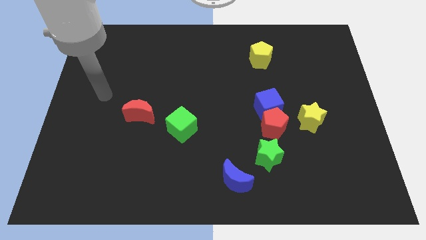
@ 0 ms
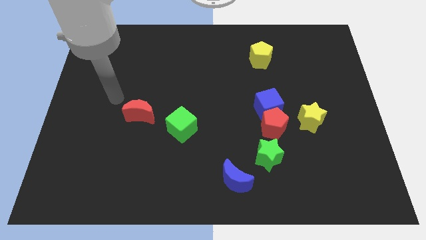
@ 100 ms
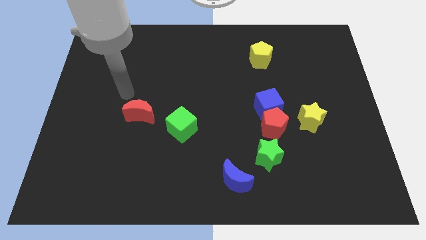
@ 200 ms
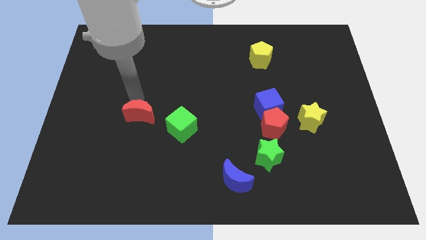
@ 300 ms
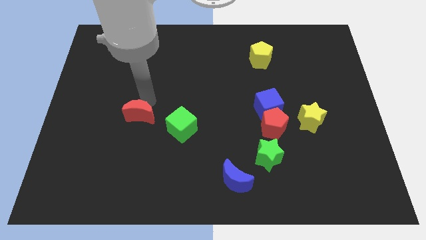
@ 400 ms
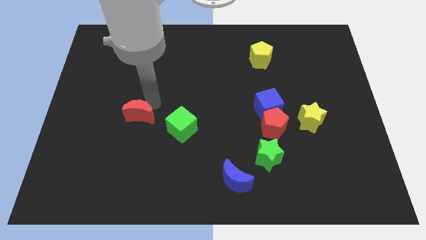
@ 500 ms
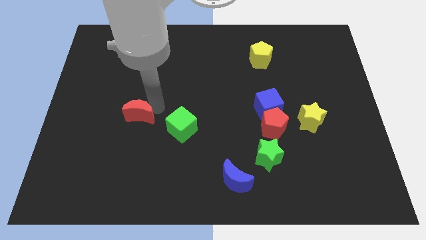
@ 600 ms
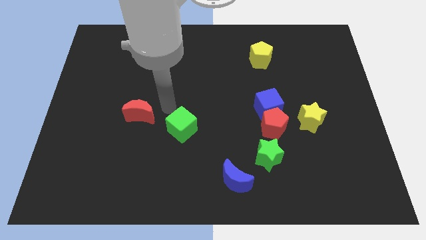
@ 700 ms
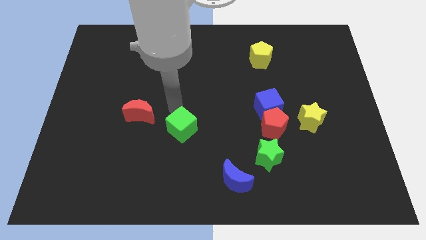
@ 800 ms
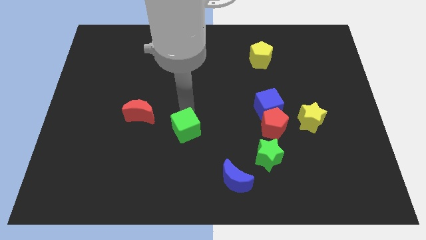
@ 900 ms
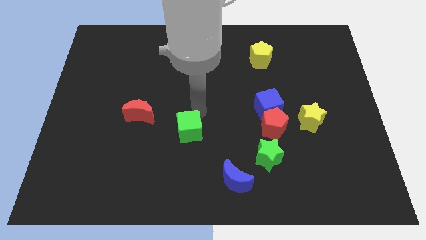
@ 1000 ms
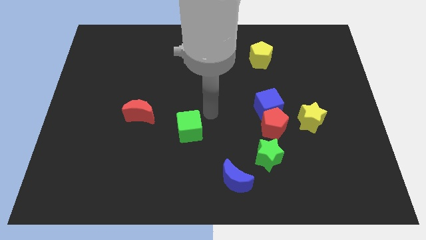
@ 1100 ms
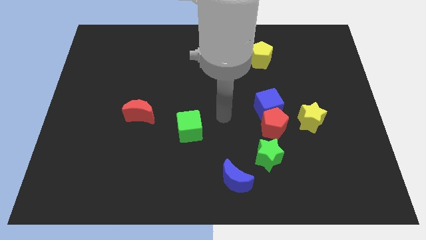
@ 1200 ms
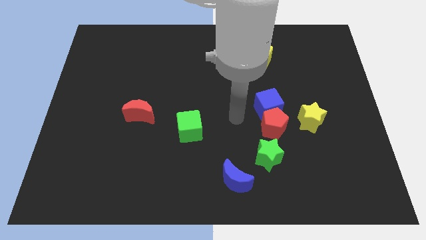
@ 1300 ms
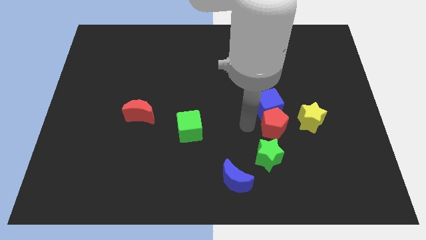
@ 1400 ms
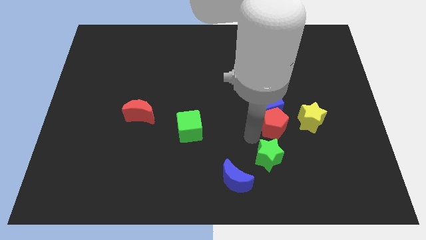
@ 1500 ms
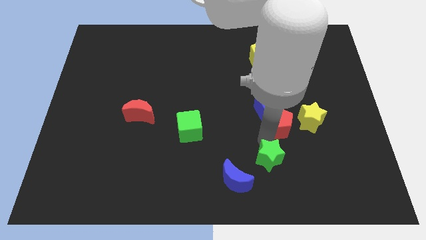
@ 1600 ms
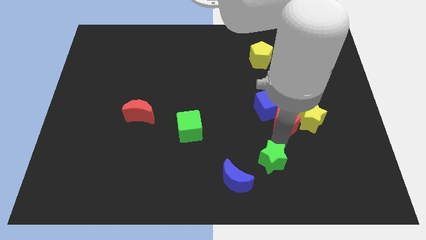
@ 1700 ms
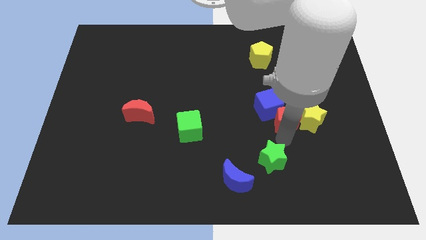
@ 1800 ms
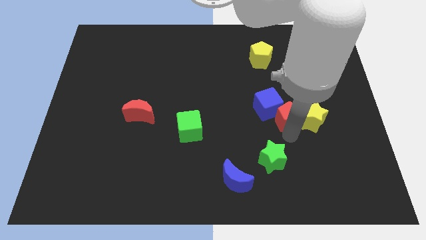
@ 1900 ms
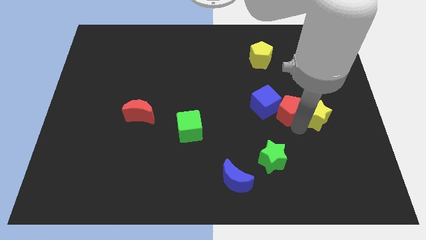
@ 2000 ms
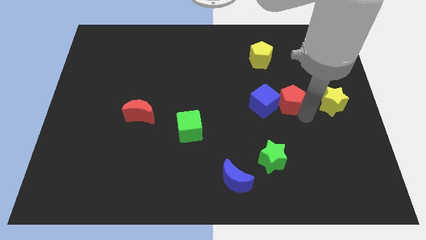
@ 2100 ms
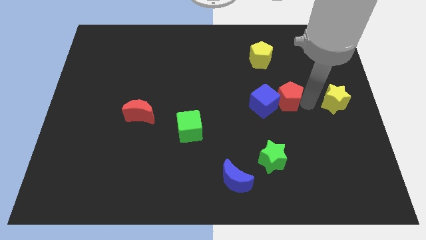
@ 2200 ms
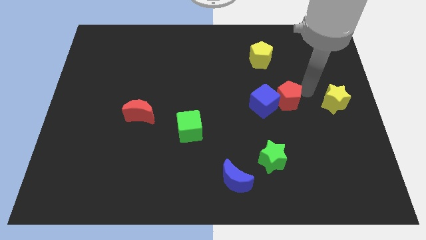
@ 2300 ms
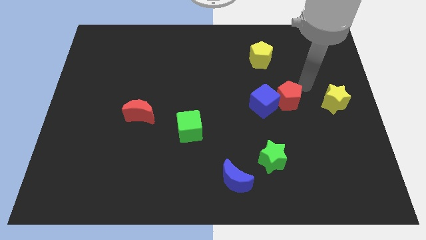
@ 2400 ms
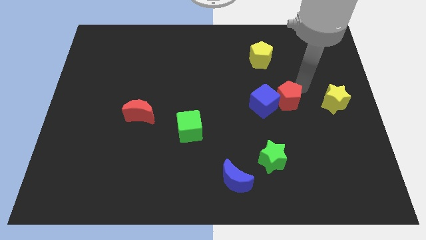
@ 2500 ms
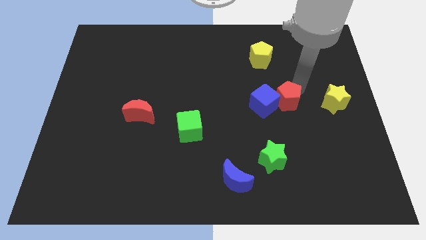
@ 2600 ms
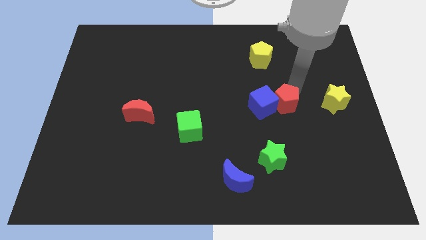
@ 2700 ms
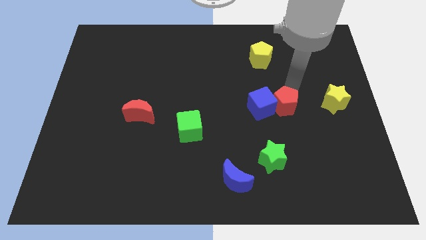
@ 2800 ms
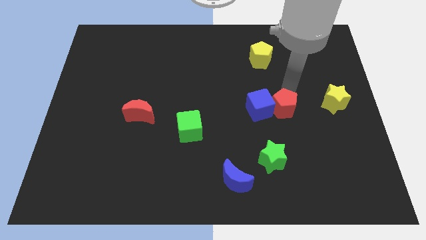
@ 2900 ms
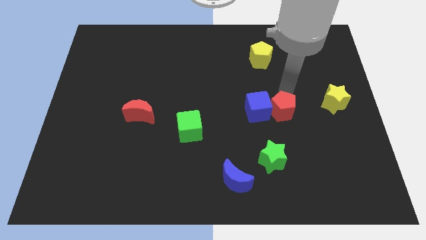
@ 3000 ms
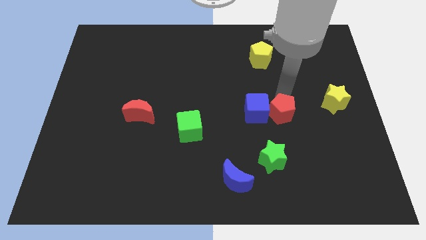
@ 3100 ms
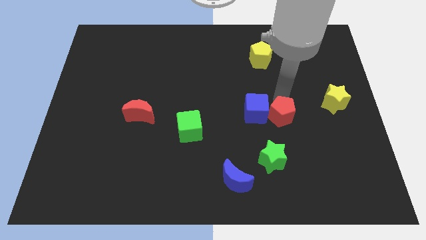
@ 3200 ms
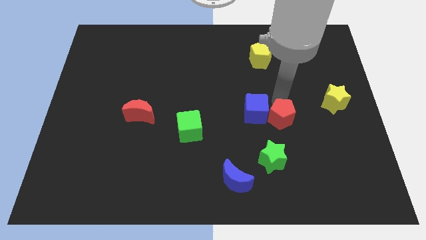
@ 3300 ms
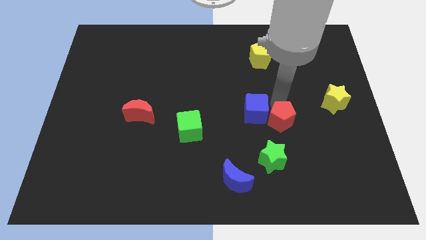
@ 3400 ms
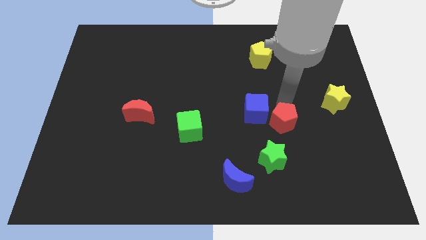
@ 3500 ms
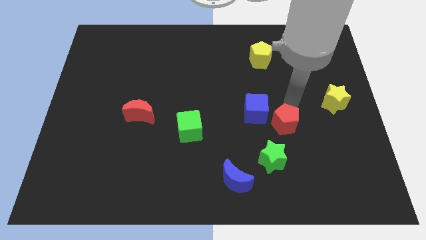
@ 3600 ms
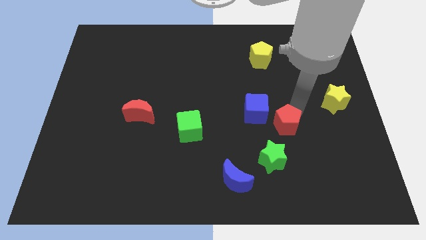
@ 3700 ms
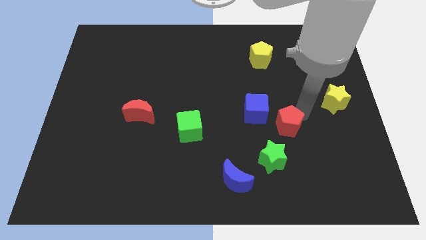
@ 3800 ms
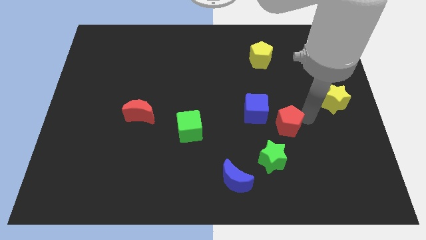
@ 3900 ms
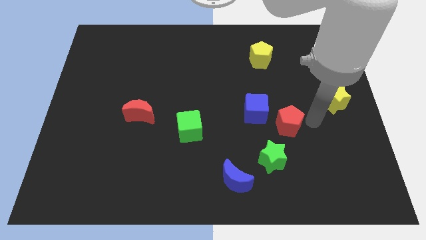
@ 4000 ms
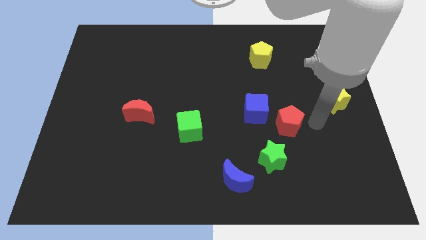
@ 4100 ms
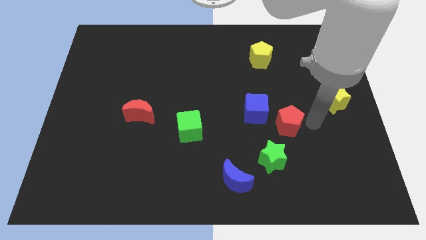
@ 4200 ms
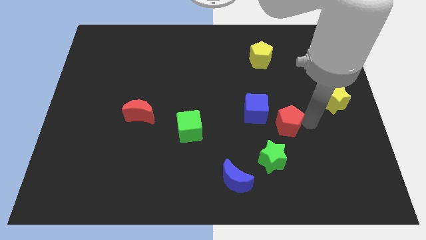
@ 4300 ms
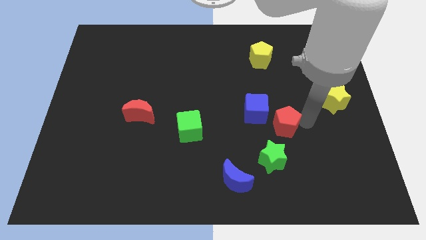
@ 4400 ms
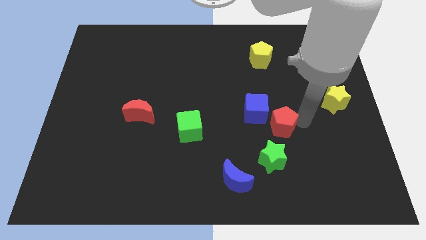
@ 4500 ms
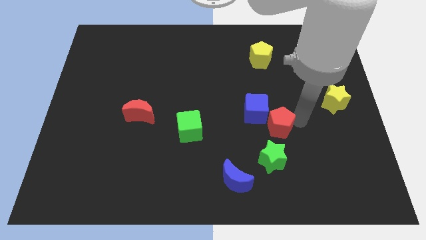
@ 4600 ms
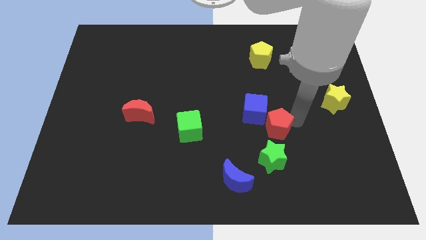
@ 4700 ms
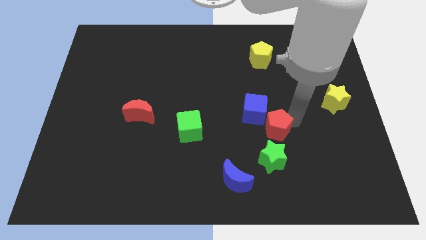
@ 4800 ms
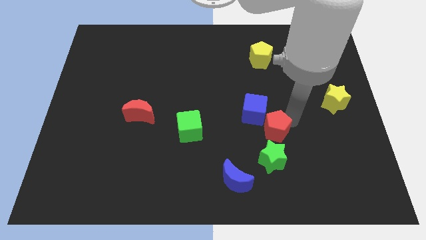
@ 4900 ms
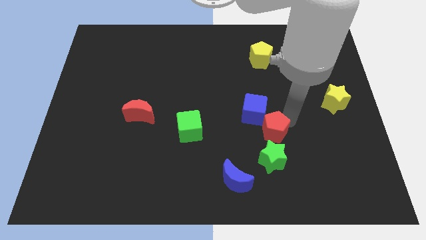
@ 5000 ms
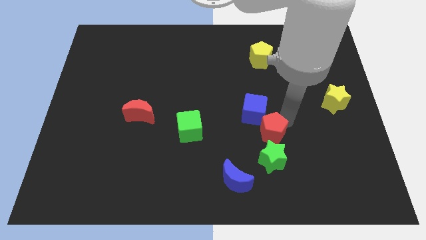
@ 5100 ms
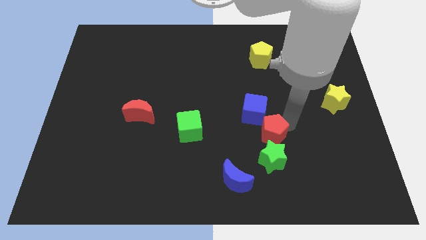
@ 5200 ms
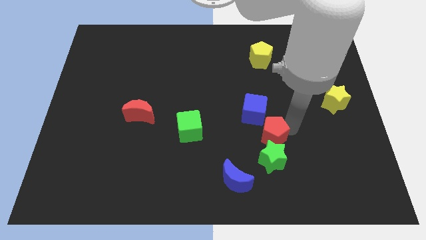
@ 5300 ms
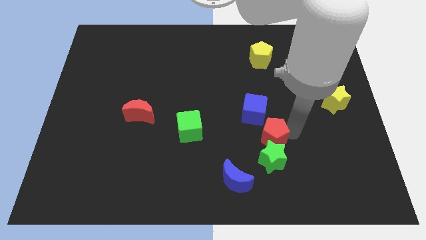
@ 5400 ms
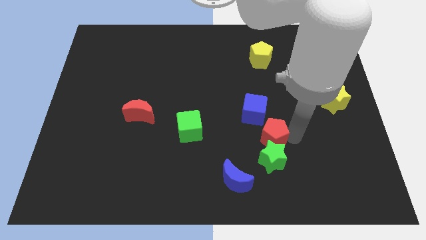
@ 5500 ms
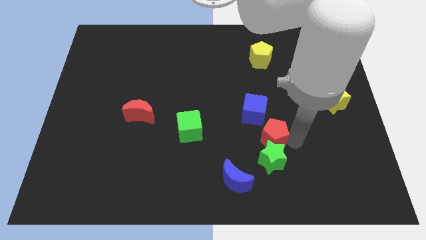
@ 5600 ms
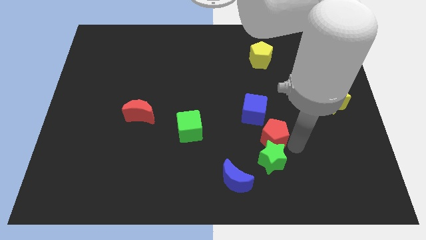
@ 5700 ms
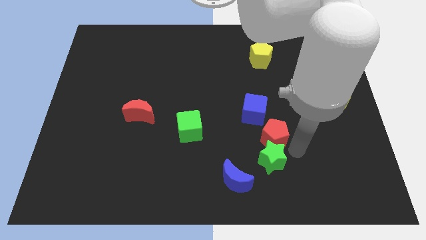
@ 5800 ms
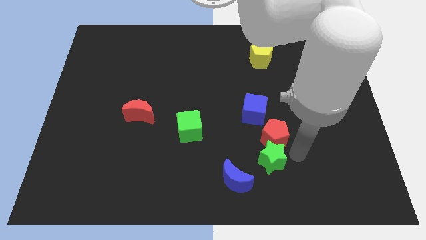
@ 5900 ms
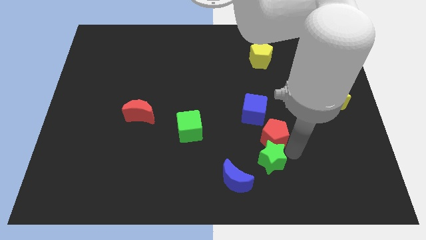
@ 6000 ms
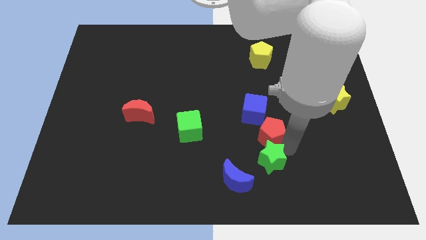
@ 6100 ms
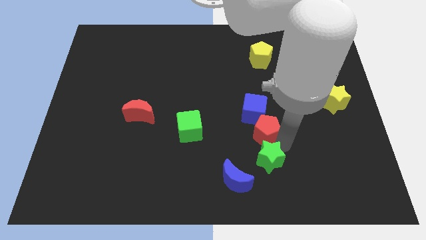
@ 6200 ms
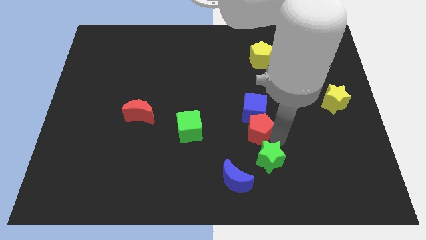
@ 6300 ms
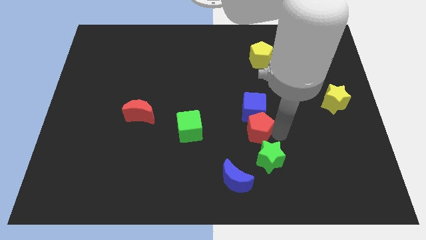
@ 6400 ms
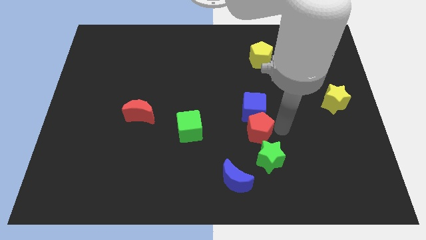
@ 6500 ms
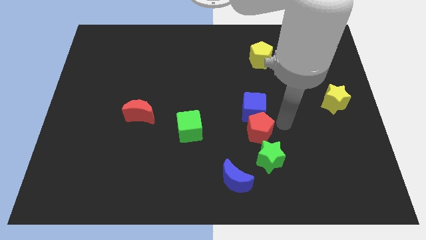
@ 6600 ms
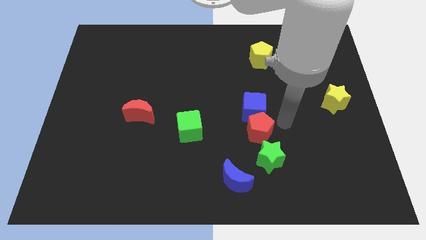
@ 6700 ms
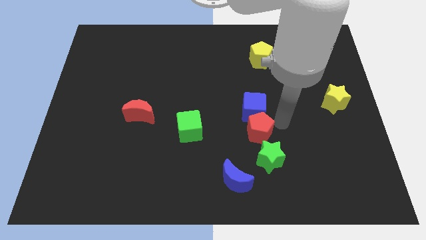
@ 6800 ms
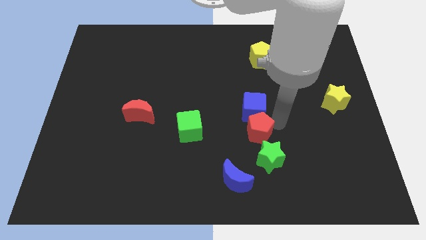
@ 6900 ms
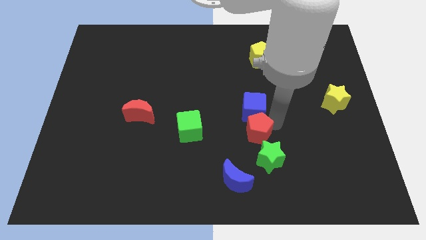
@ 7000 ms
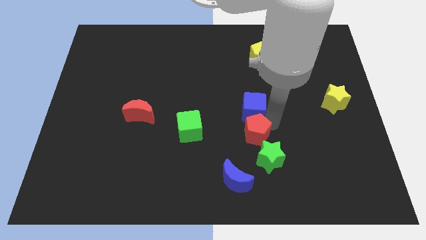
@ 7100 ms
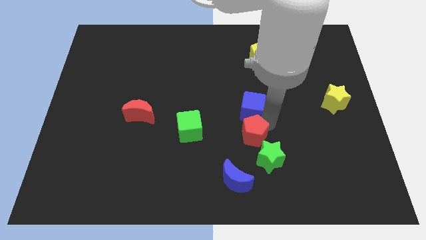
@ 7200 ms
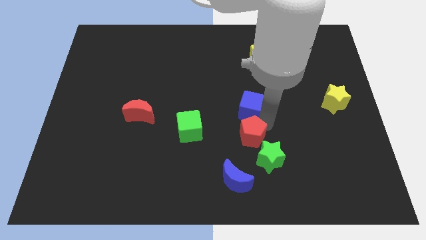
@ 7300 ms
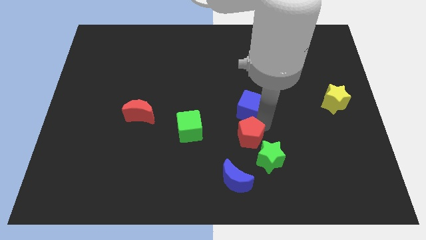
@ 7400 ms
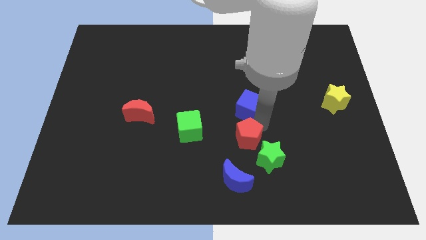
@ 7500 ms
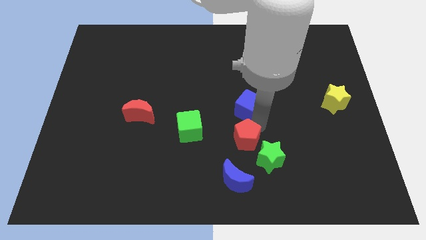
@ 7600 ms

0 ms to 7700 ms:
move the red pentagon away from the group of blocks

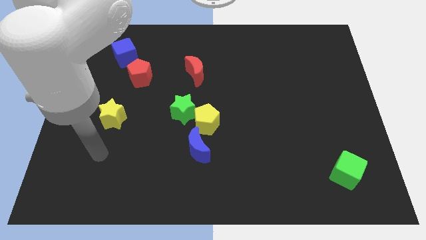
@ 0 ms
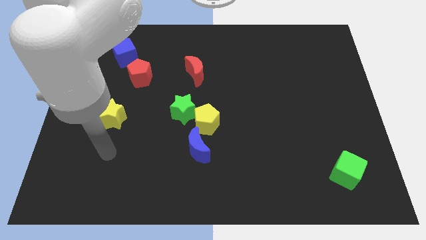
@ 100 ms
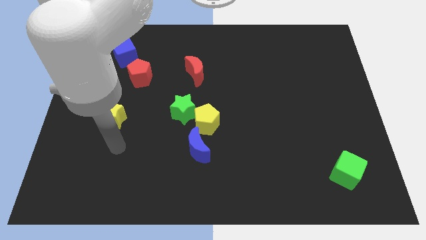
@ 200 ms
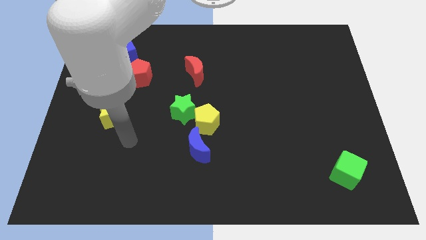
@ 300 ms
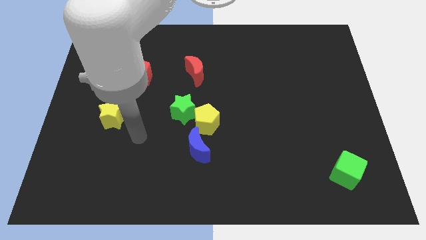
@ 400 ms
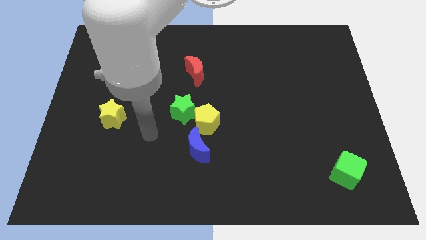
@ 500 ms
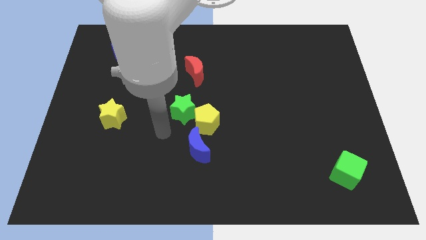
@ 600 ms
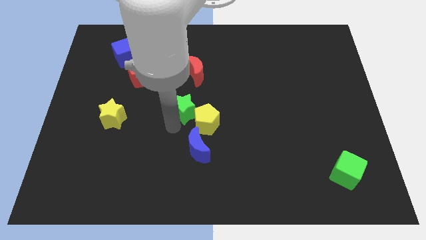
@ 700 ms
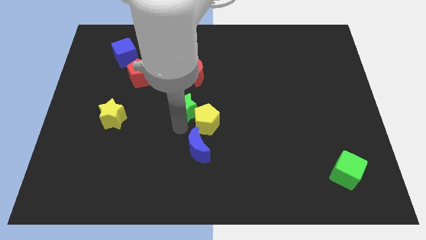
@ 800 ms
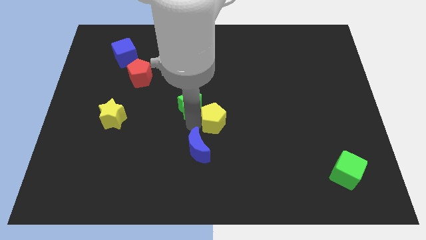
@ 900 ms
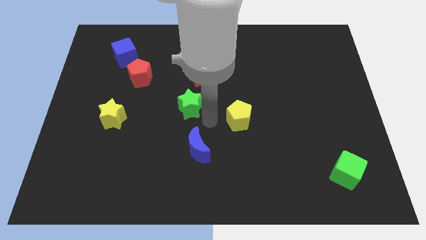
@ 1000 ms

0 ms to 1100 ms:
pull the green star apart from the yellow pentagon

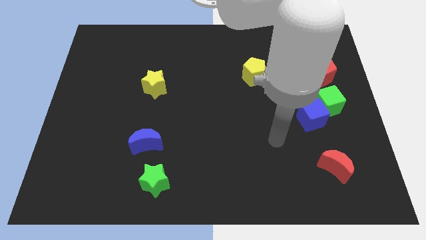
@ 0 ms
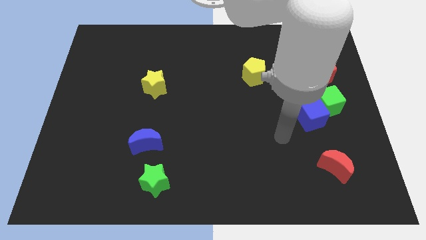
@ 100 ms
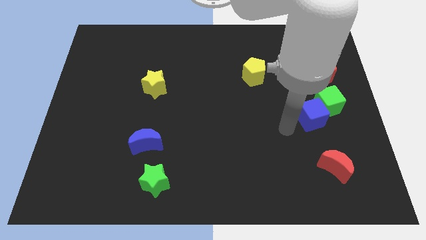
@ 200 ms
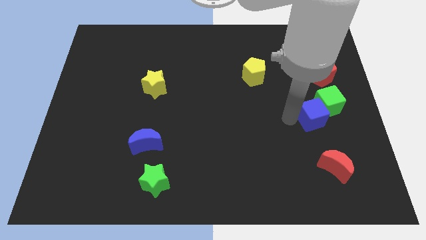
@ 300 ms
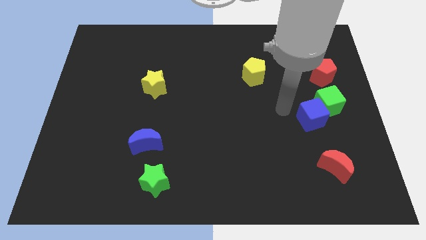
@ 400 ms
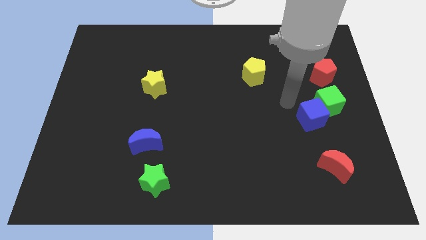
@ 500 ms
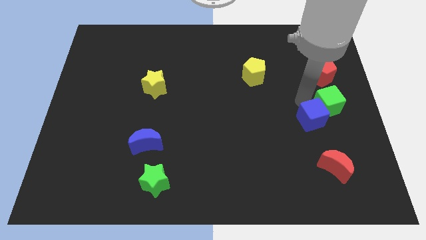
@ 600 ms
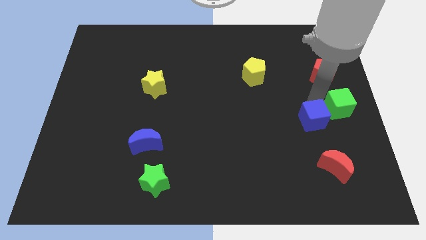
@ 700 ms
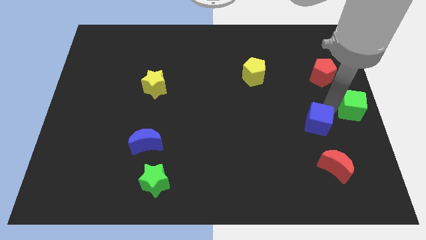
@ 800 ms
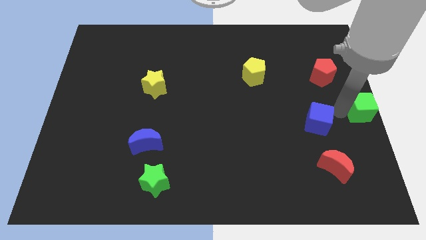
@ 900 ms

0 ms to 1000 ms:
separate the blue cube from the green cube
